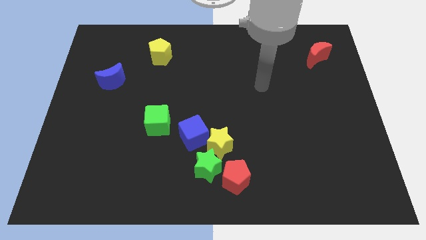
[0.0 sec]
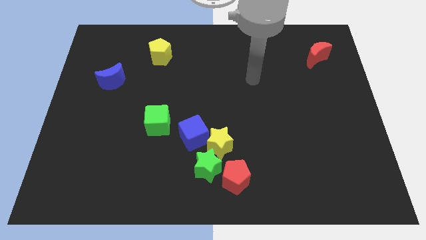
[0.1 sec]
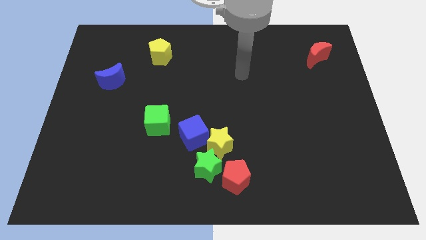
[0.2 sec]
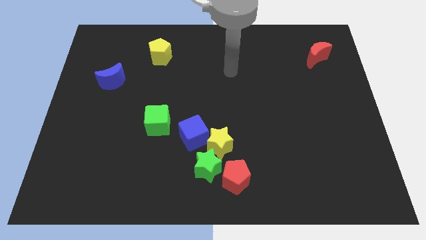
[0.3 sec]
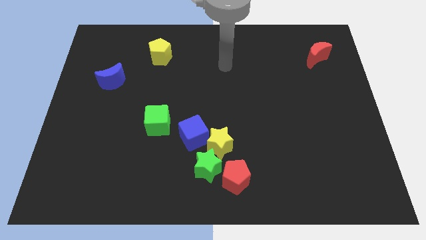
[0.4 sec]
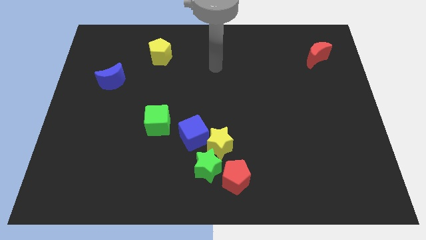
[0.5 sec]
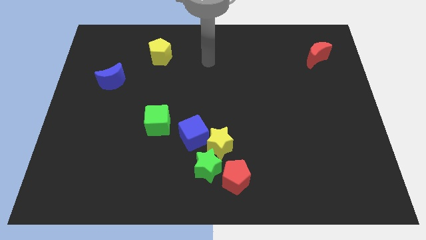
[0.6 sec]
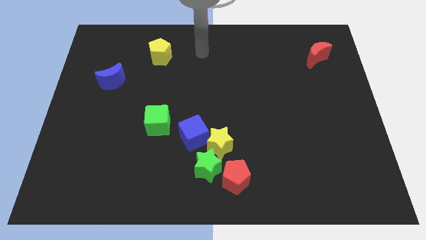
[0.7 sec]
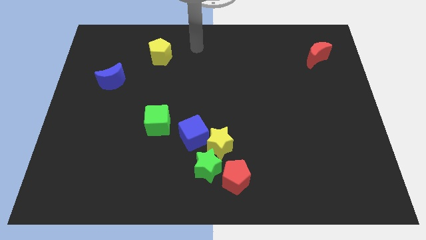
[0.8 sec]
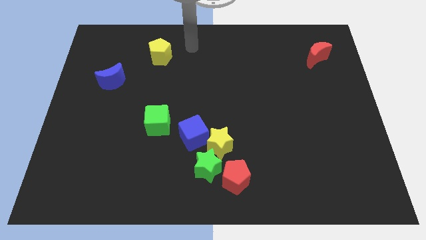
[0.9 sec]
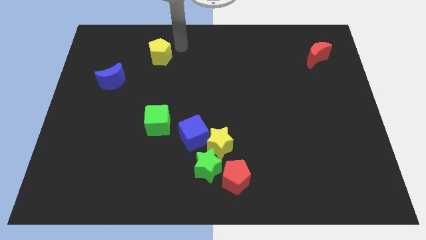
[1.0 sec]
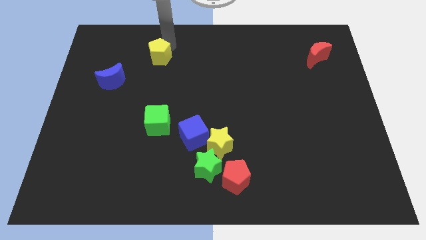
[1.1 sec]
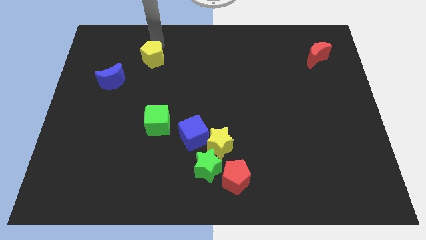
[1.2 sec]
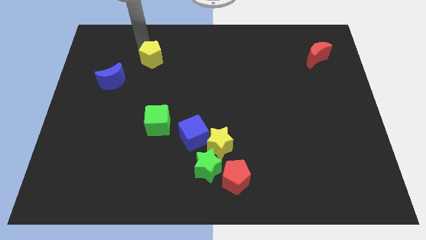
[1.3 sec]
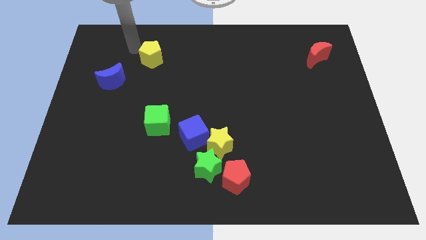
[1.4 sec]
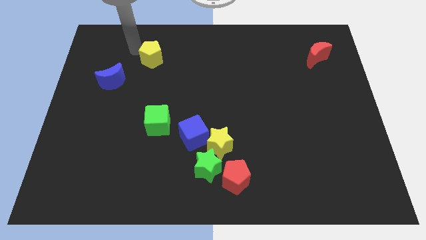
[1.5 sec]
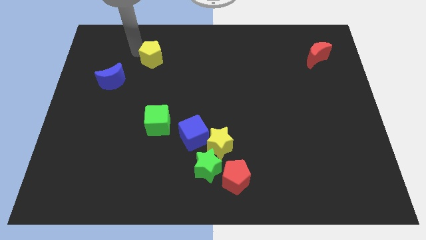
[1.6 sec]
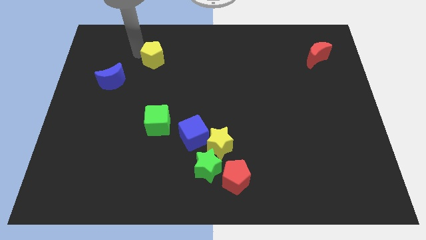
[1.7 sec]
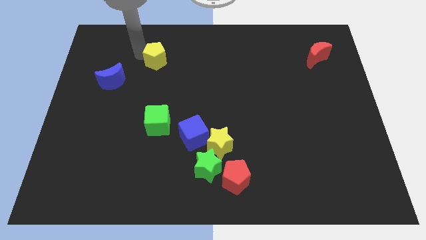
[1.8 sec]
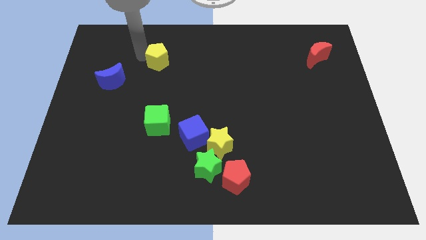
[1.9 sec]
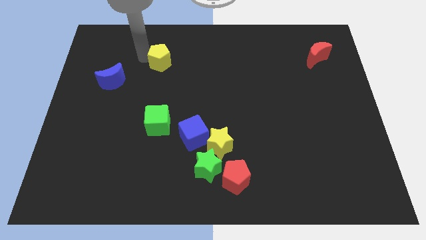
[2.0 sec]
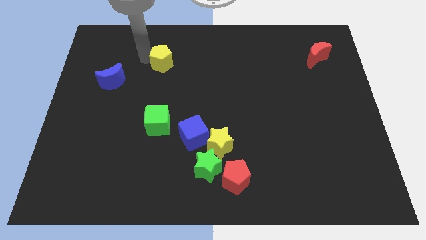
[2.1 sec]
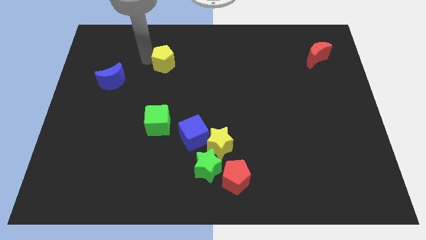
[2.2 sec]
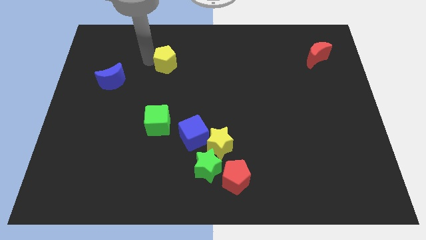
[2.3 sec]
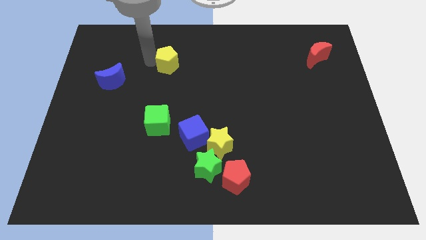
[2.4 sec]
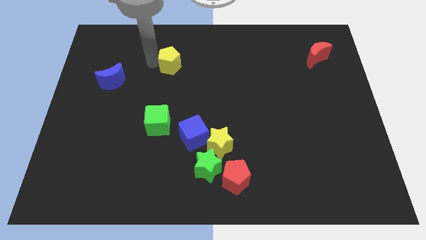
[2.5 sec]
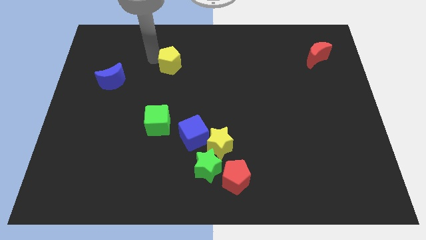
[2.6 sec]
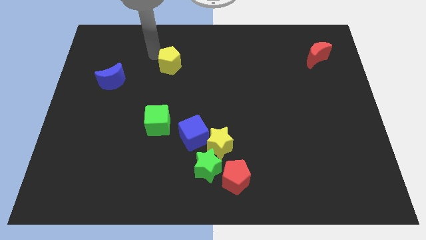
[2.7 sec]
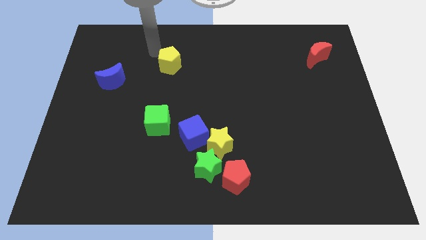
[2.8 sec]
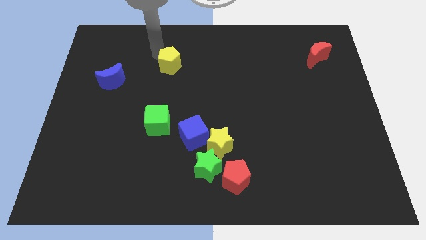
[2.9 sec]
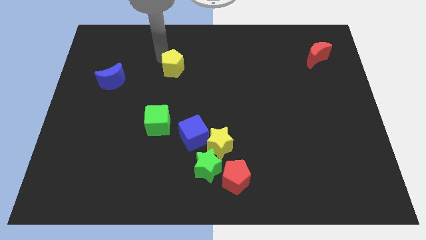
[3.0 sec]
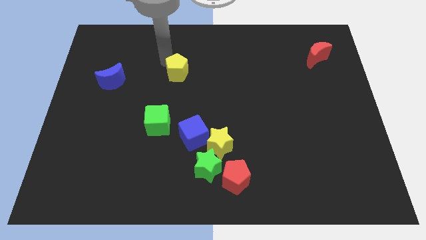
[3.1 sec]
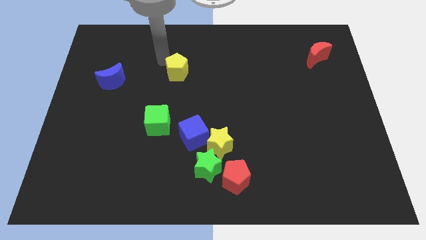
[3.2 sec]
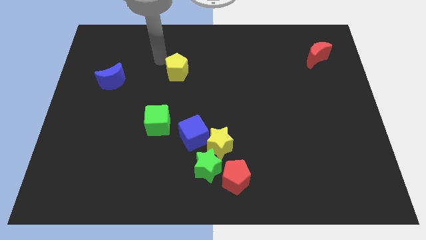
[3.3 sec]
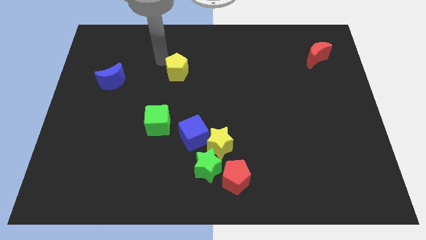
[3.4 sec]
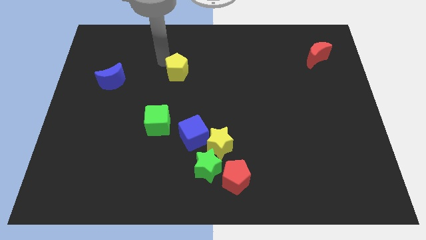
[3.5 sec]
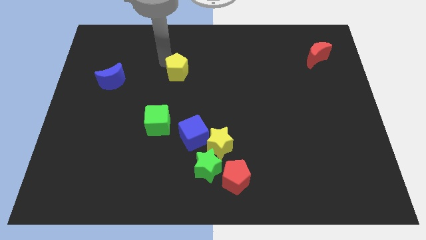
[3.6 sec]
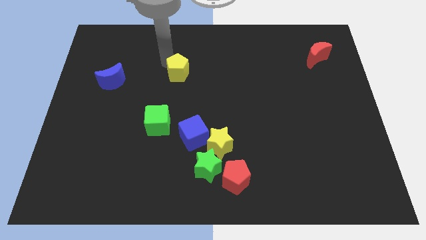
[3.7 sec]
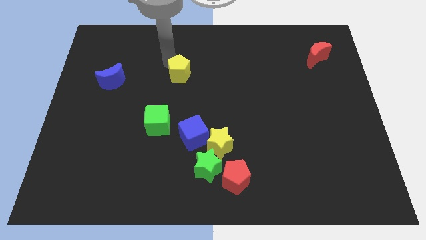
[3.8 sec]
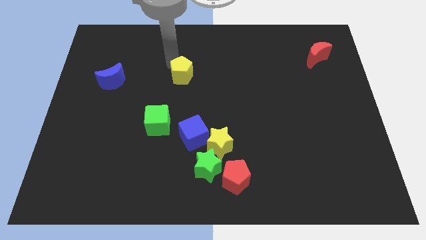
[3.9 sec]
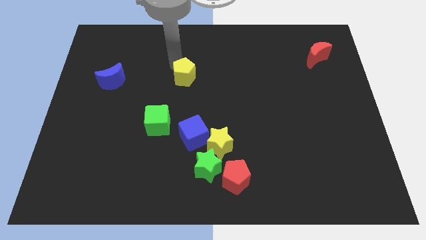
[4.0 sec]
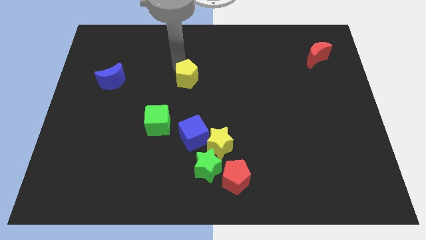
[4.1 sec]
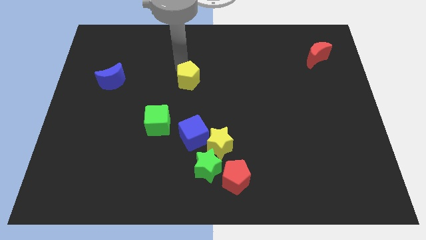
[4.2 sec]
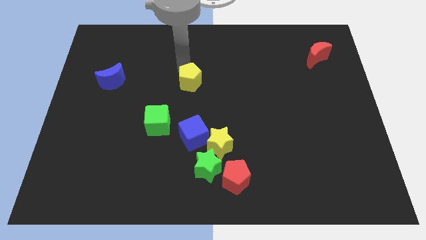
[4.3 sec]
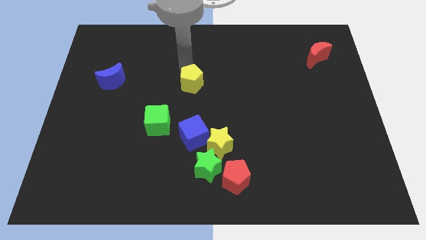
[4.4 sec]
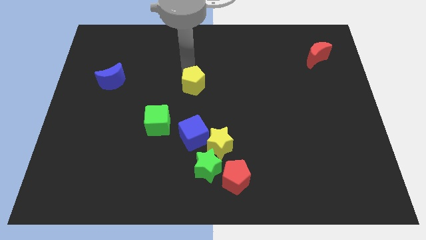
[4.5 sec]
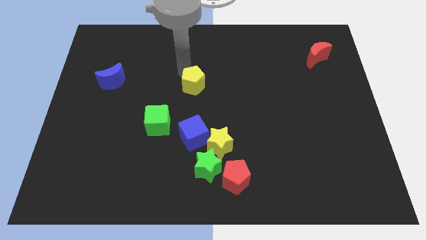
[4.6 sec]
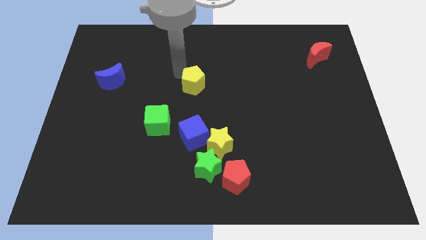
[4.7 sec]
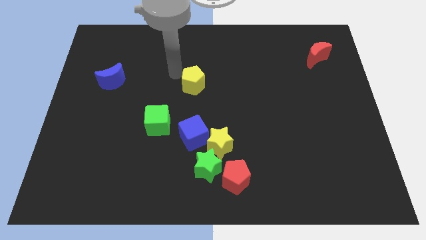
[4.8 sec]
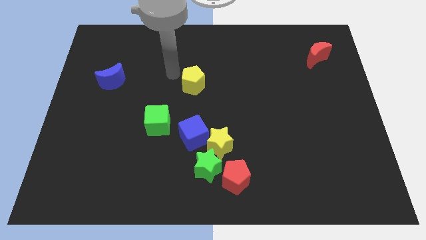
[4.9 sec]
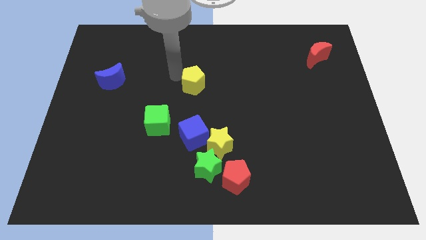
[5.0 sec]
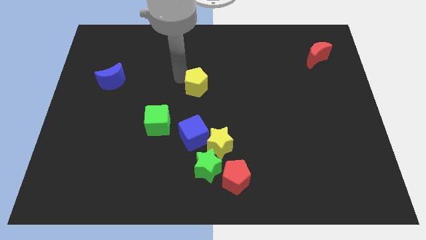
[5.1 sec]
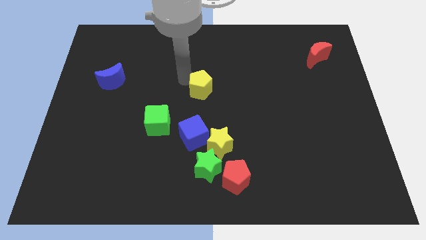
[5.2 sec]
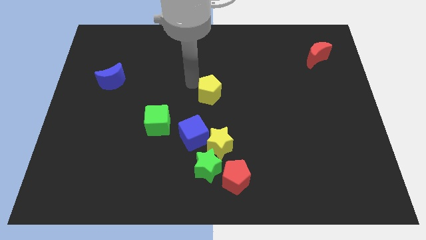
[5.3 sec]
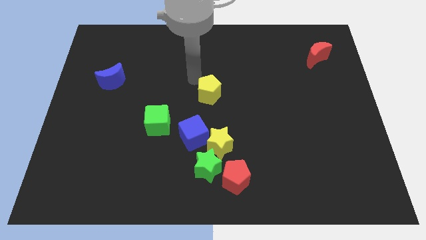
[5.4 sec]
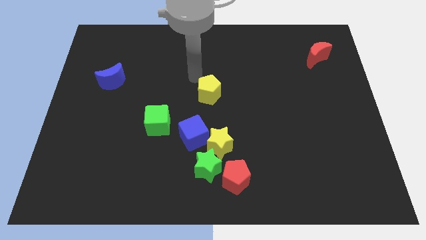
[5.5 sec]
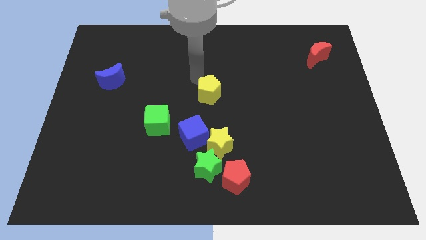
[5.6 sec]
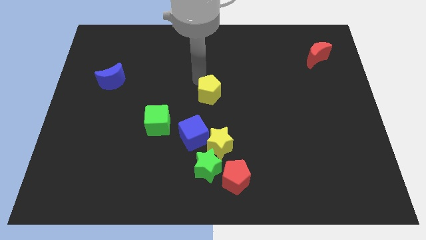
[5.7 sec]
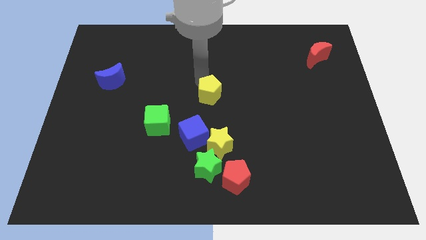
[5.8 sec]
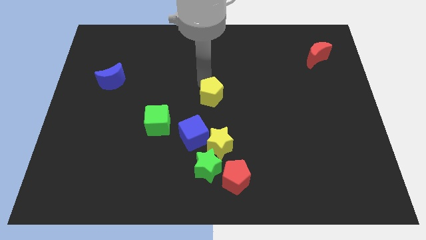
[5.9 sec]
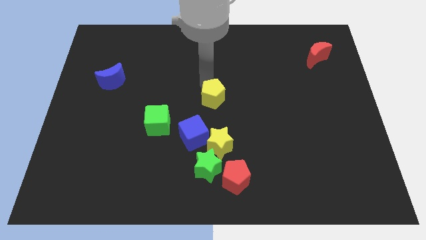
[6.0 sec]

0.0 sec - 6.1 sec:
push the yellow pentagon downwards and then right

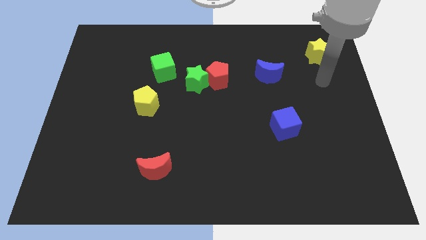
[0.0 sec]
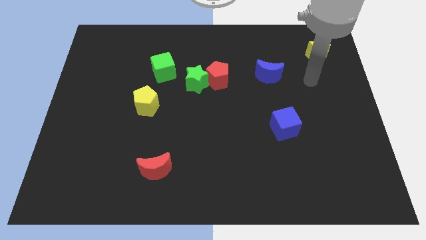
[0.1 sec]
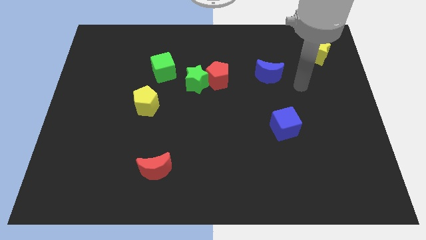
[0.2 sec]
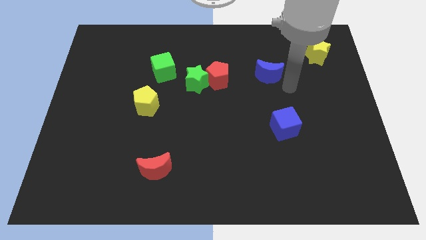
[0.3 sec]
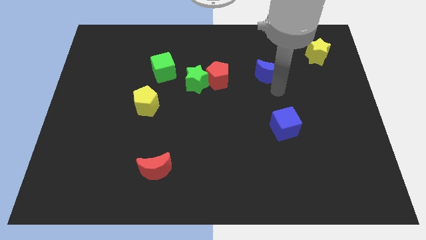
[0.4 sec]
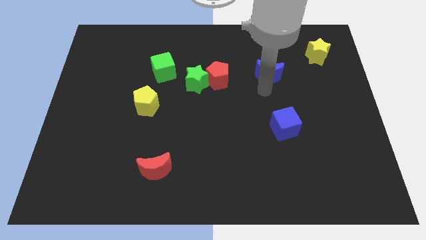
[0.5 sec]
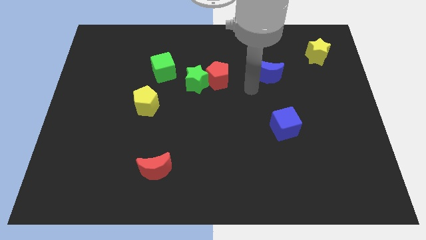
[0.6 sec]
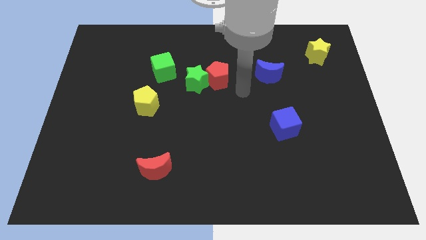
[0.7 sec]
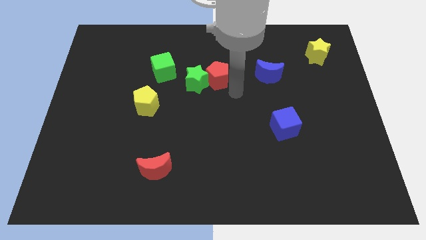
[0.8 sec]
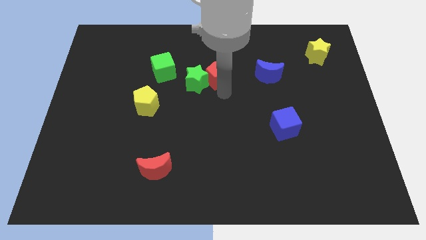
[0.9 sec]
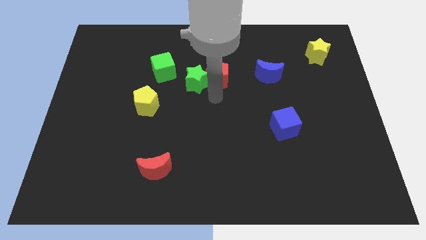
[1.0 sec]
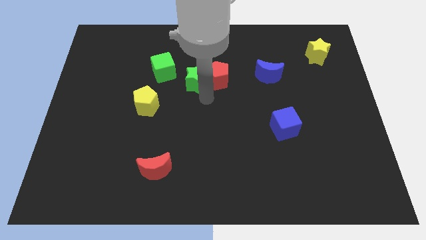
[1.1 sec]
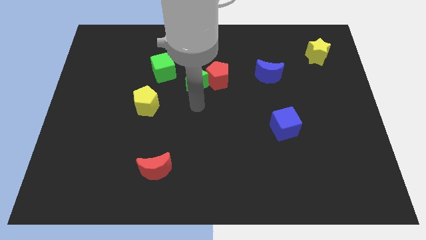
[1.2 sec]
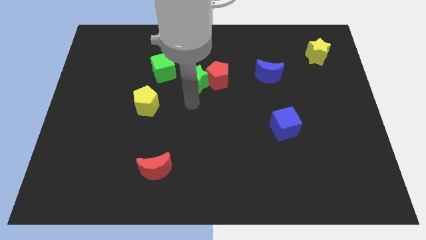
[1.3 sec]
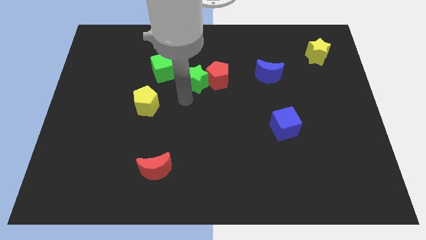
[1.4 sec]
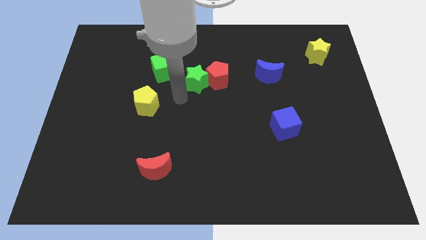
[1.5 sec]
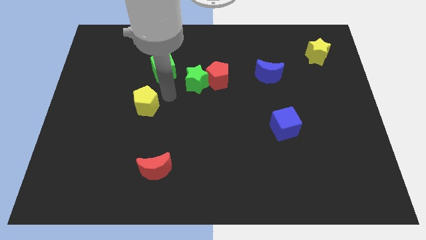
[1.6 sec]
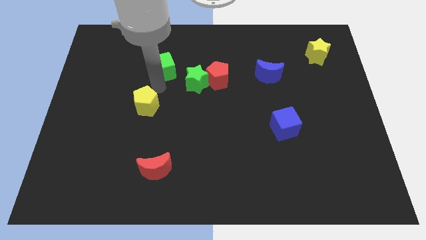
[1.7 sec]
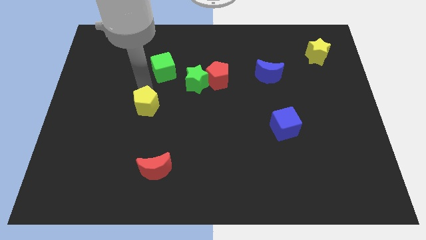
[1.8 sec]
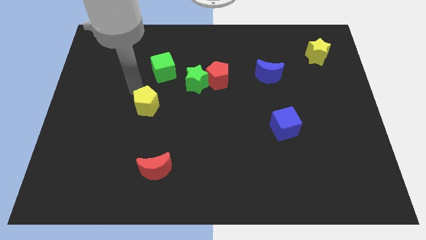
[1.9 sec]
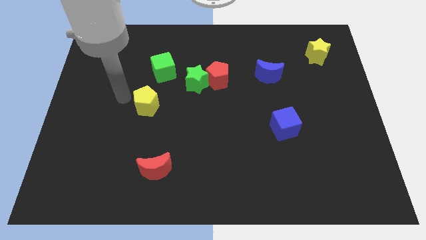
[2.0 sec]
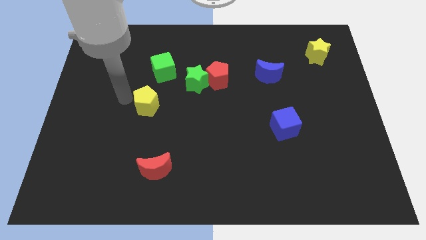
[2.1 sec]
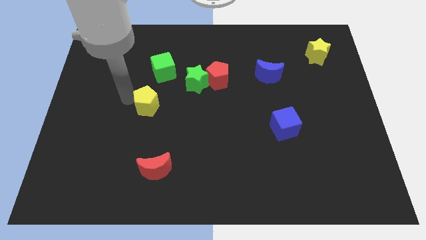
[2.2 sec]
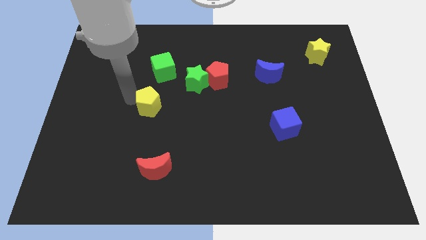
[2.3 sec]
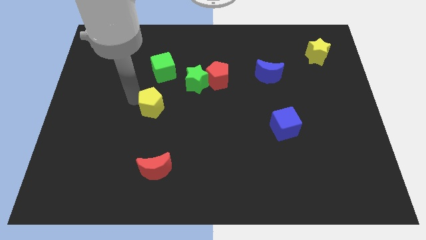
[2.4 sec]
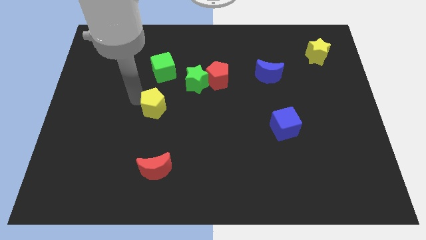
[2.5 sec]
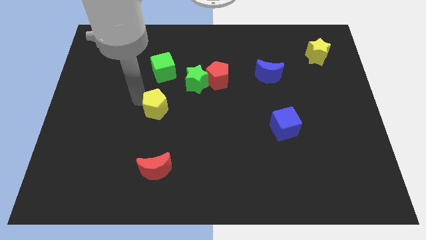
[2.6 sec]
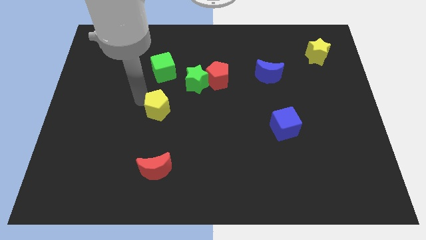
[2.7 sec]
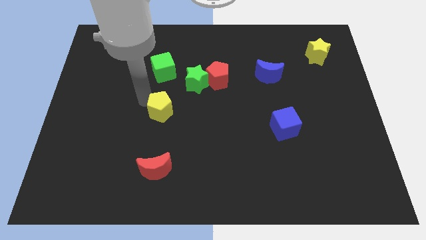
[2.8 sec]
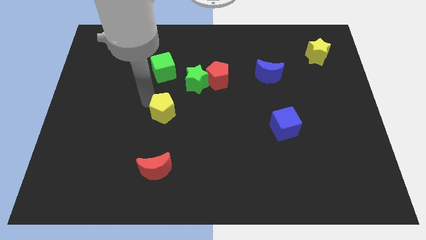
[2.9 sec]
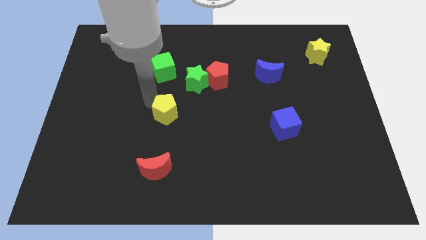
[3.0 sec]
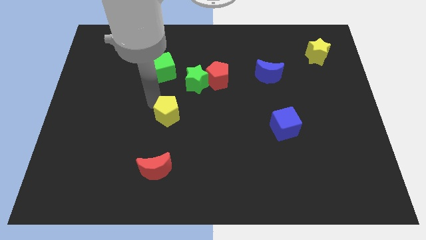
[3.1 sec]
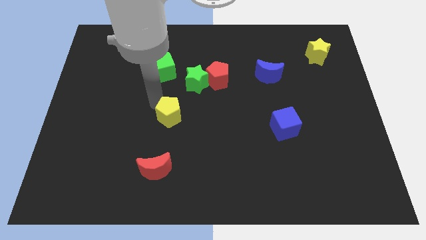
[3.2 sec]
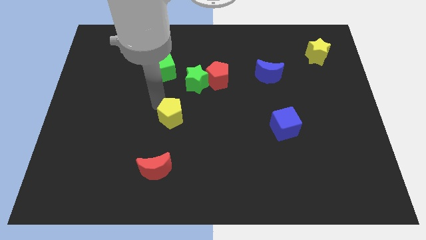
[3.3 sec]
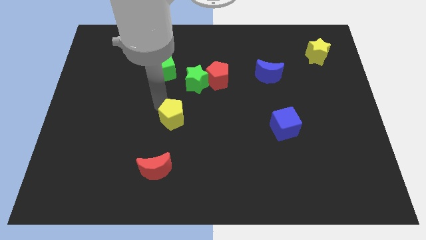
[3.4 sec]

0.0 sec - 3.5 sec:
slightly slide the yellow pentagon diagonally down and to the right
